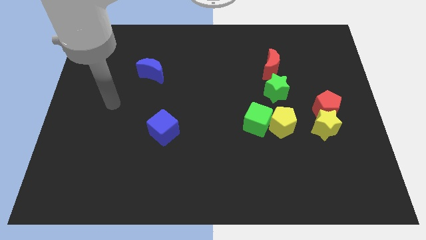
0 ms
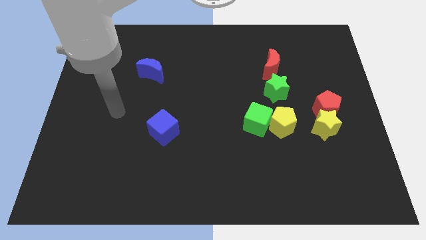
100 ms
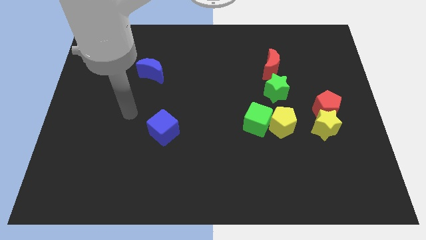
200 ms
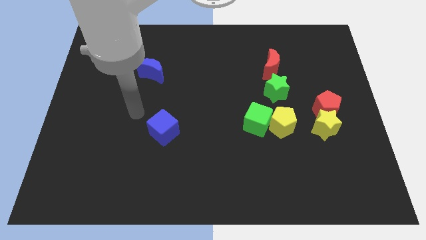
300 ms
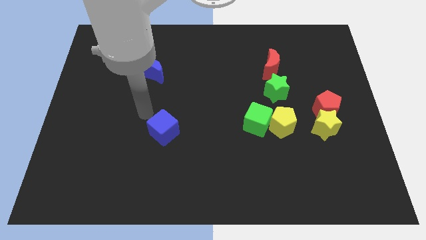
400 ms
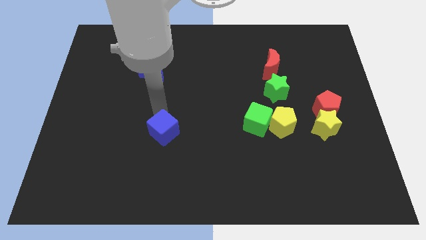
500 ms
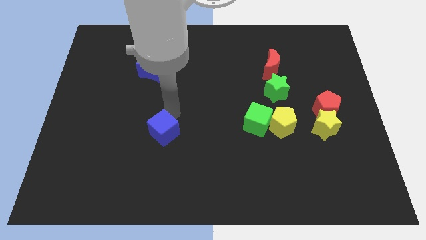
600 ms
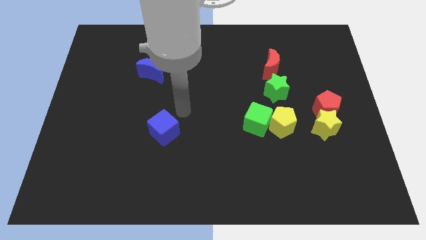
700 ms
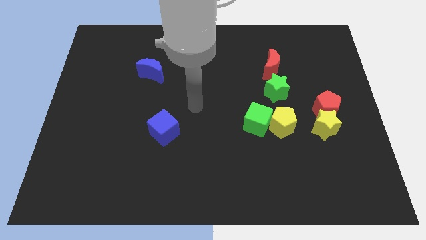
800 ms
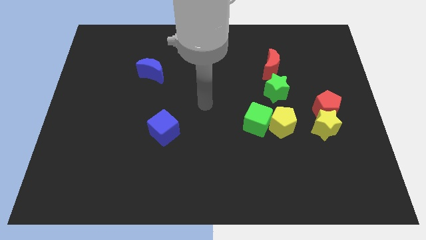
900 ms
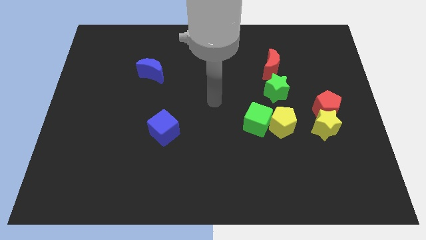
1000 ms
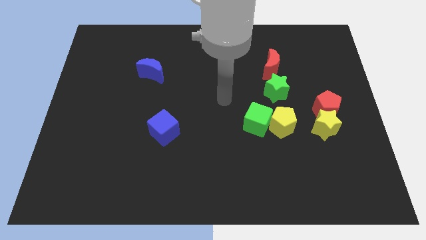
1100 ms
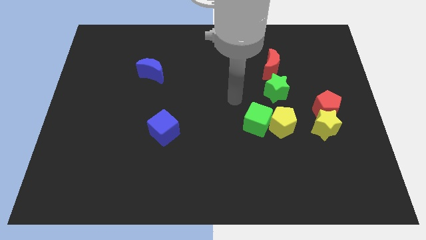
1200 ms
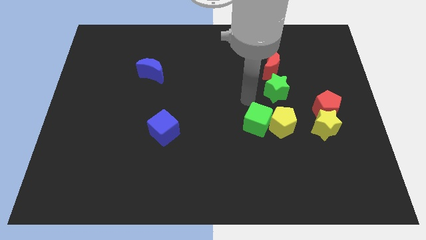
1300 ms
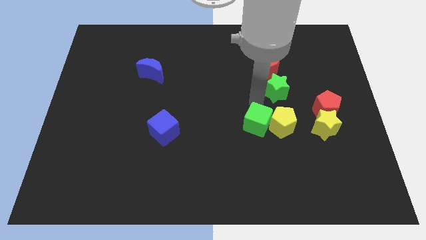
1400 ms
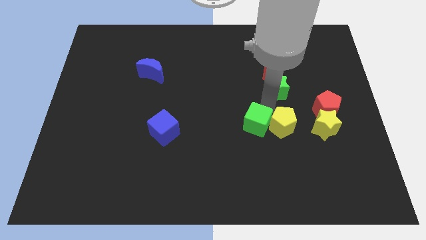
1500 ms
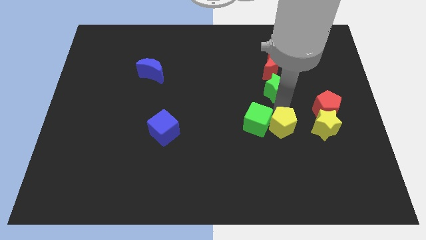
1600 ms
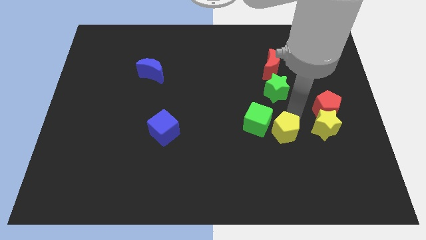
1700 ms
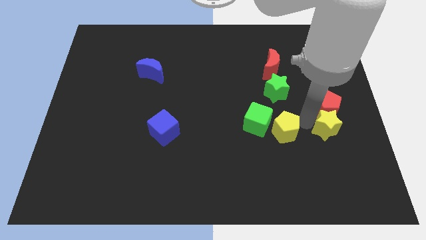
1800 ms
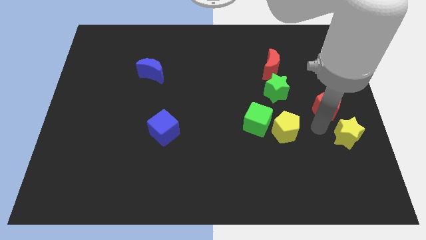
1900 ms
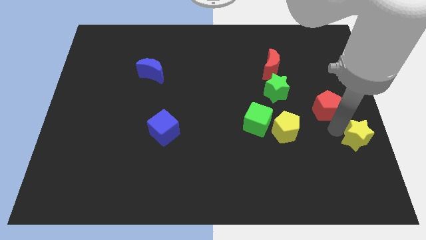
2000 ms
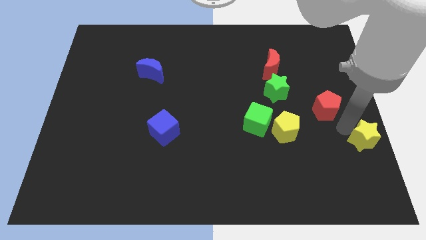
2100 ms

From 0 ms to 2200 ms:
move the red pentagon away from the yellow star

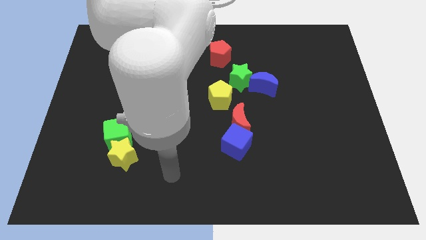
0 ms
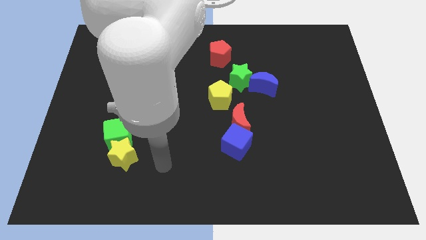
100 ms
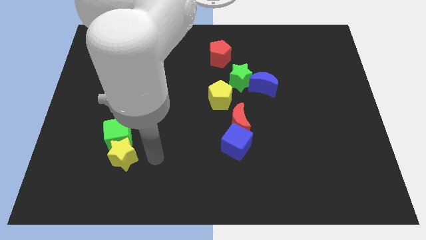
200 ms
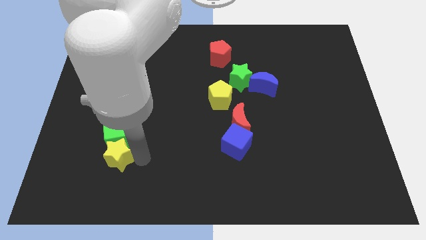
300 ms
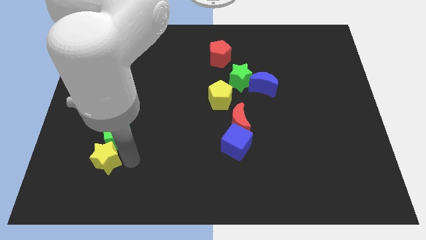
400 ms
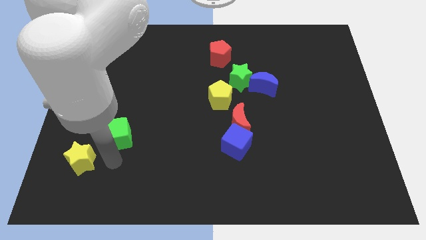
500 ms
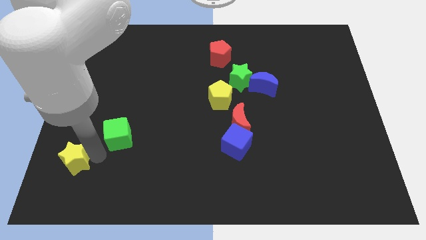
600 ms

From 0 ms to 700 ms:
move the green cube away from the yellow star

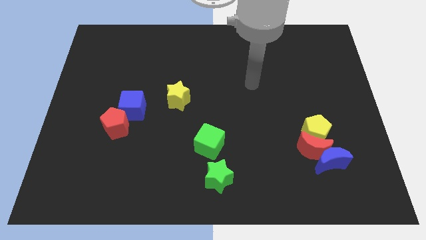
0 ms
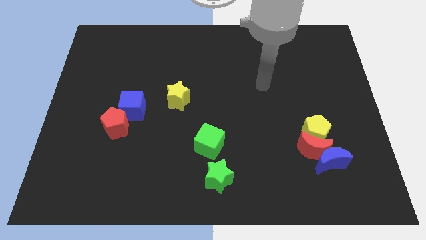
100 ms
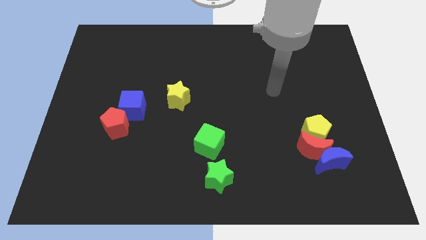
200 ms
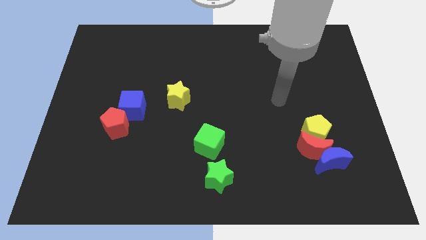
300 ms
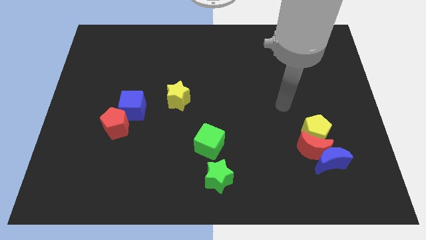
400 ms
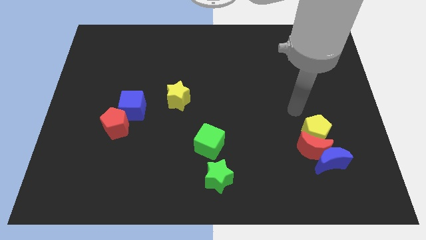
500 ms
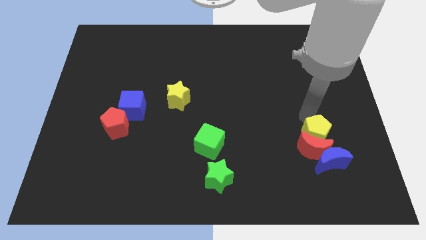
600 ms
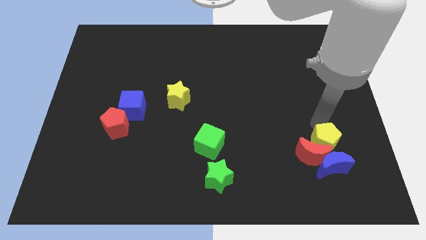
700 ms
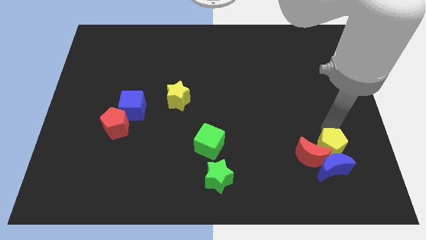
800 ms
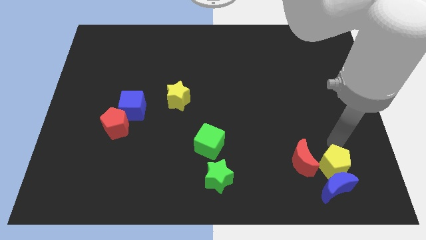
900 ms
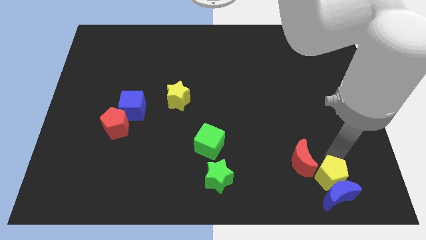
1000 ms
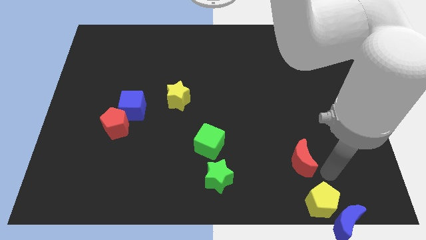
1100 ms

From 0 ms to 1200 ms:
move the red moon away from the blue moon and yellow pentagon

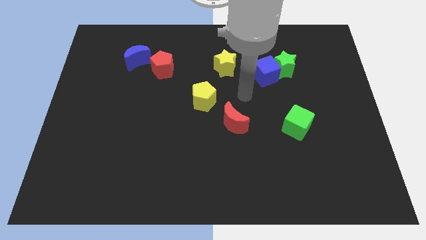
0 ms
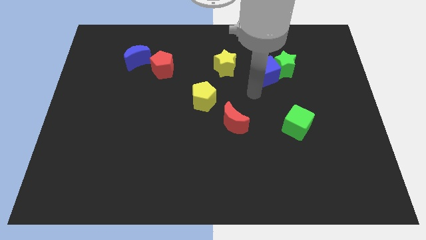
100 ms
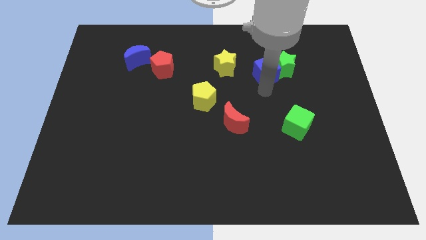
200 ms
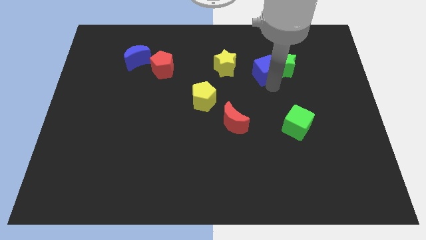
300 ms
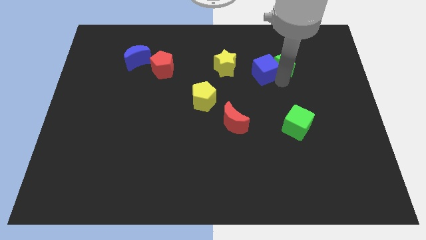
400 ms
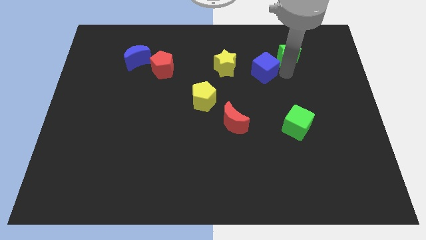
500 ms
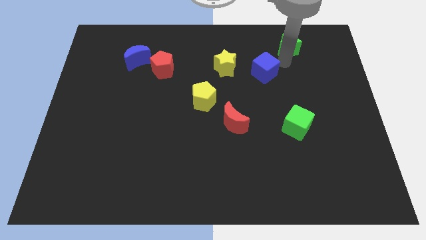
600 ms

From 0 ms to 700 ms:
move the blue cube away from the green star

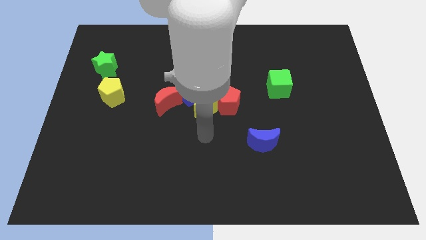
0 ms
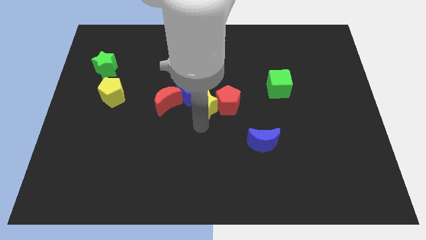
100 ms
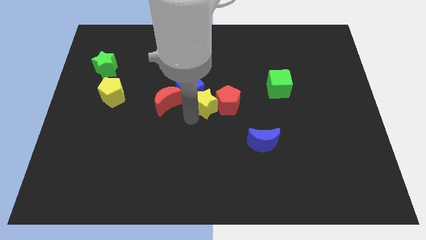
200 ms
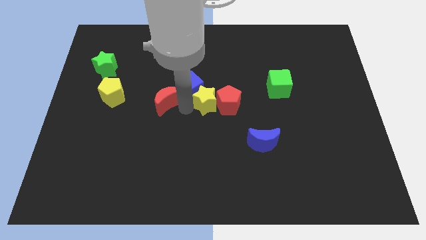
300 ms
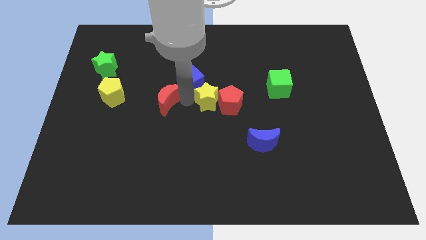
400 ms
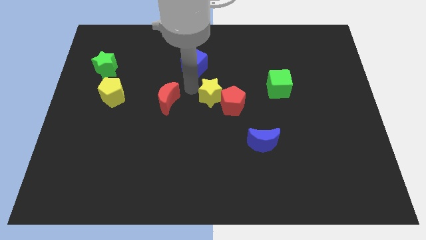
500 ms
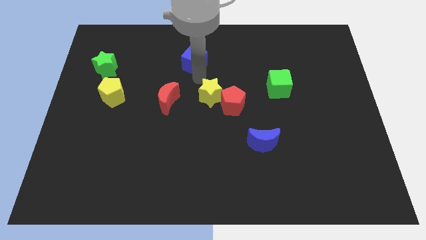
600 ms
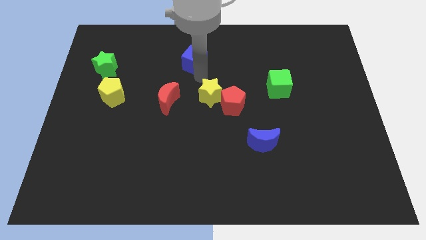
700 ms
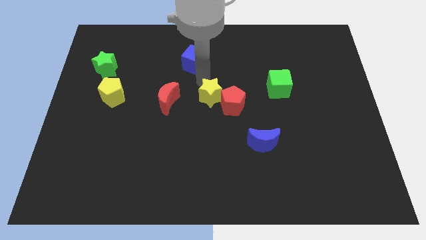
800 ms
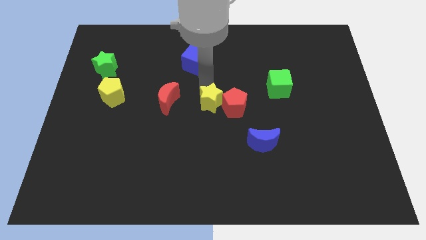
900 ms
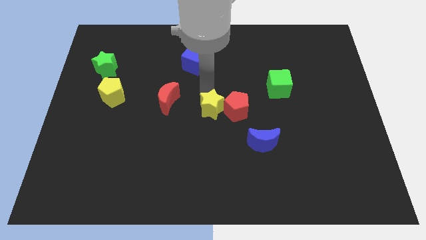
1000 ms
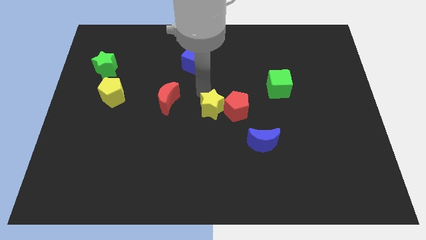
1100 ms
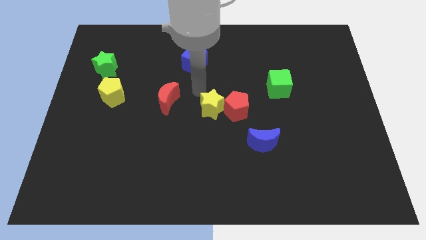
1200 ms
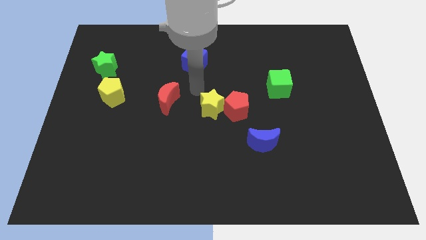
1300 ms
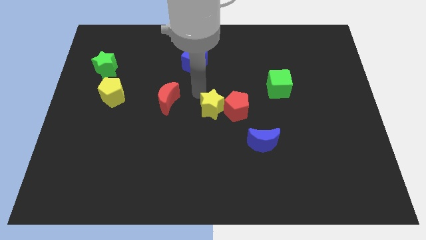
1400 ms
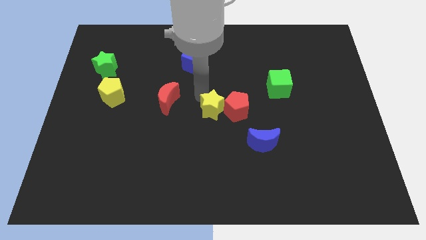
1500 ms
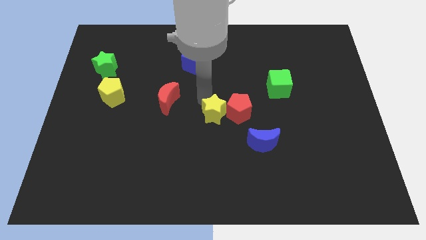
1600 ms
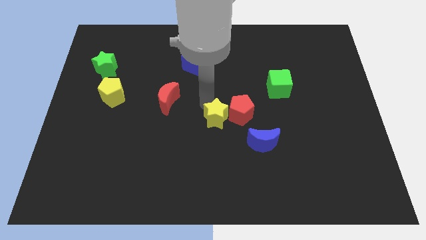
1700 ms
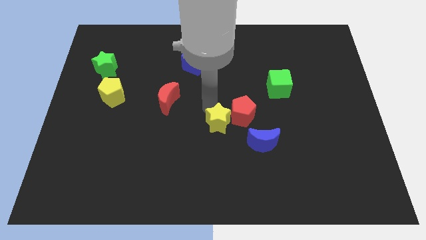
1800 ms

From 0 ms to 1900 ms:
pull the yellow star apart from the red pentagon, blue cube, and red moon

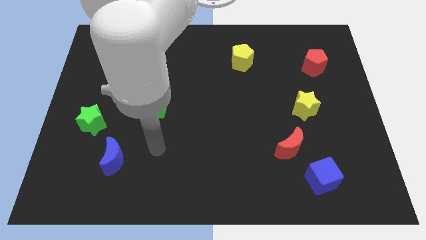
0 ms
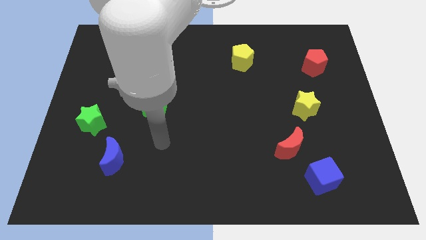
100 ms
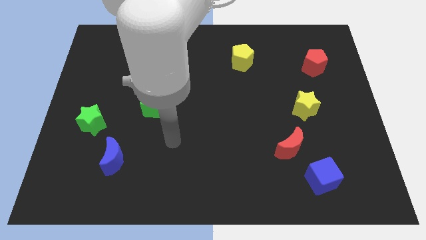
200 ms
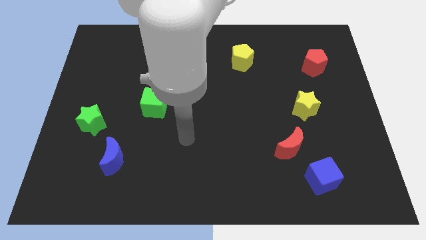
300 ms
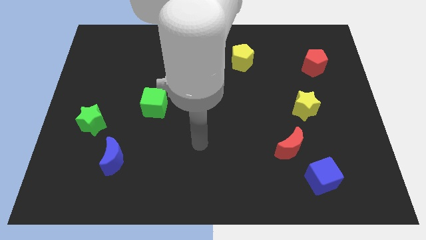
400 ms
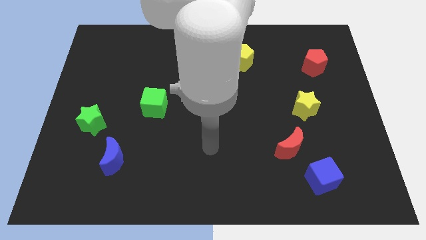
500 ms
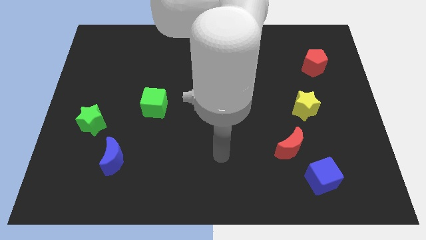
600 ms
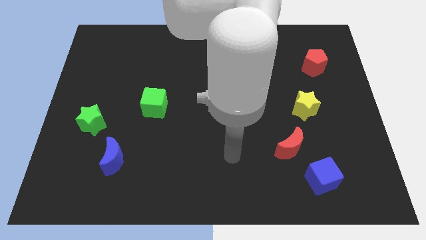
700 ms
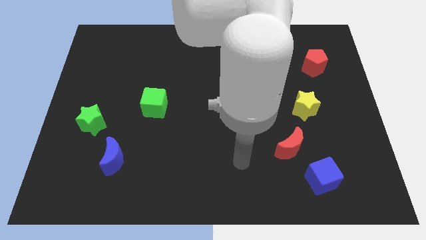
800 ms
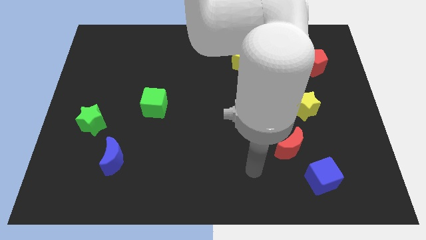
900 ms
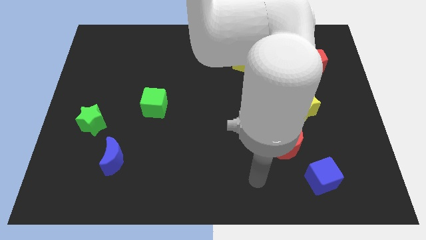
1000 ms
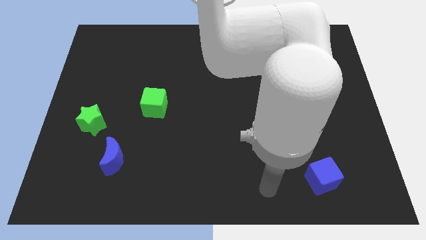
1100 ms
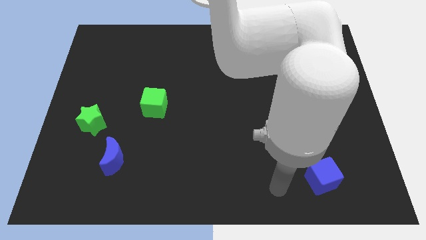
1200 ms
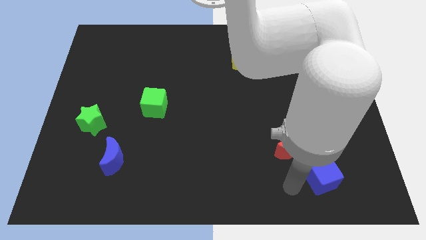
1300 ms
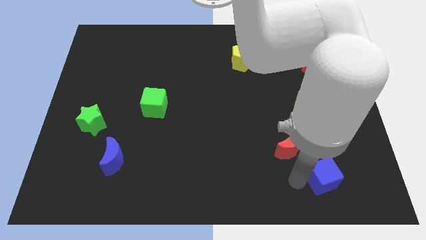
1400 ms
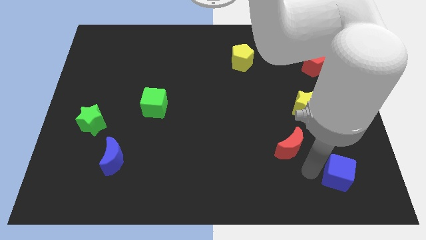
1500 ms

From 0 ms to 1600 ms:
pull the red moon apart from the blue cube

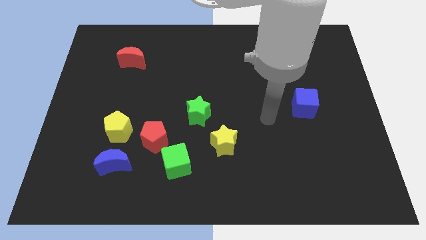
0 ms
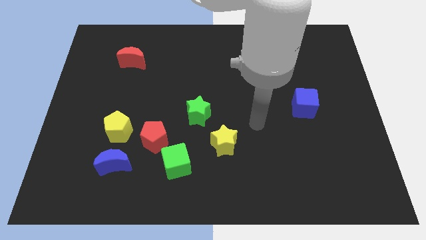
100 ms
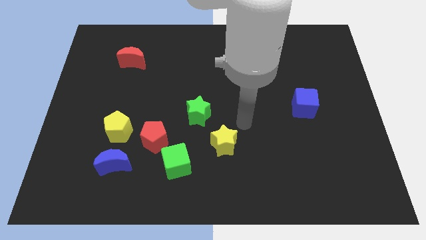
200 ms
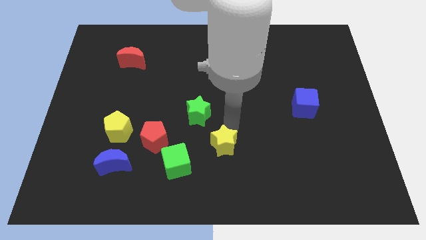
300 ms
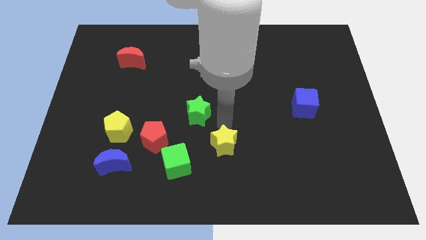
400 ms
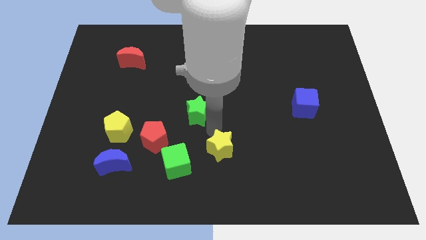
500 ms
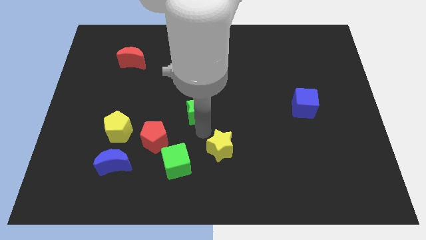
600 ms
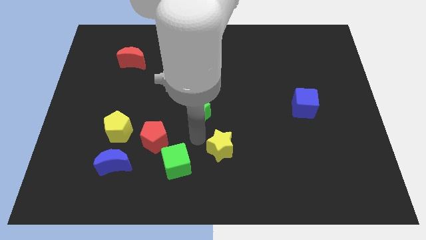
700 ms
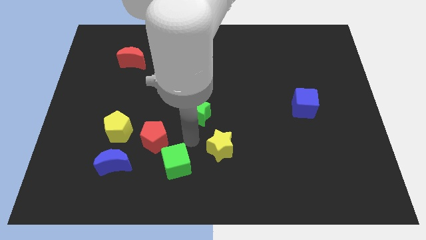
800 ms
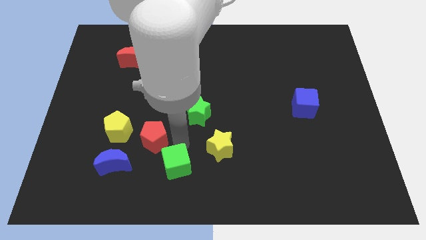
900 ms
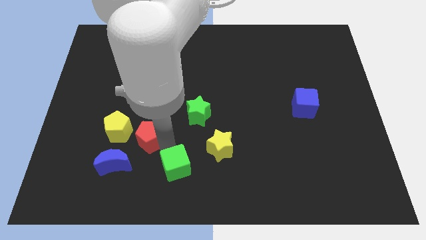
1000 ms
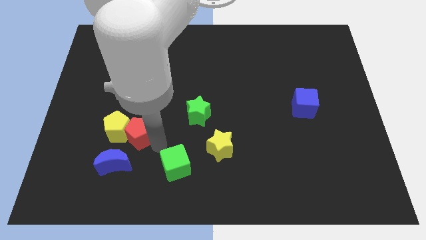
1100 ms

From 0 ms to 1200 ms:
move the green cube away from the red pentagon

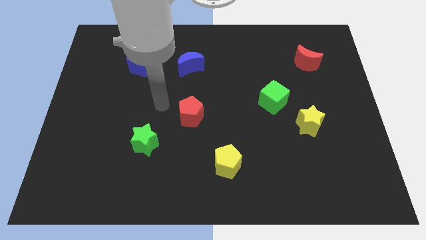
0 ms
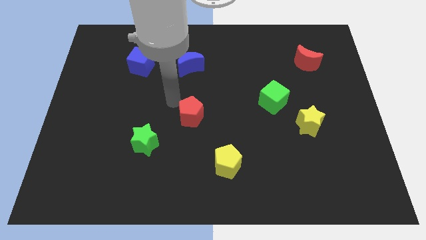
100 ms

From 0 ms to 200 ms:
pull the green cube apart from the yellow star
